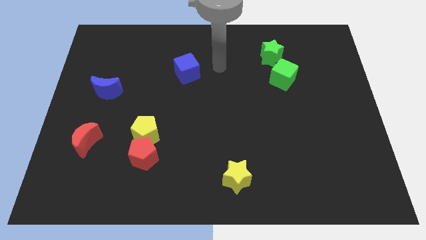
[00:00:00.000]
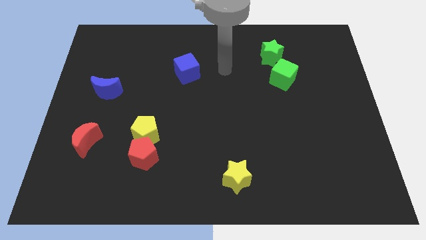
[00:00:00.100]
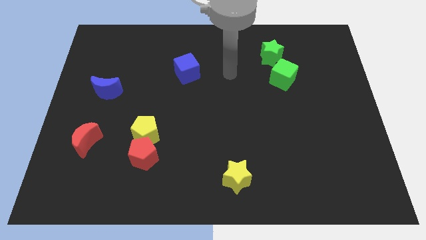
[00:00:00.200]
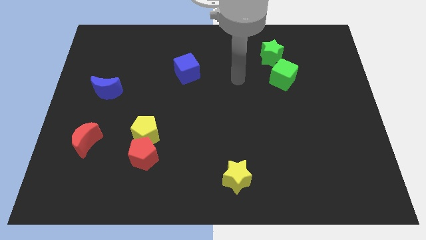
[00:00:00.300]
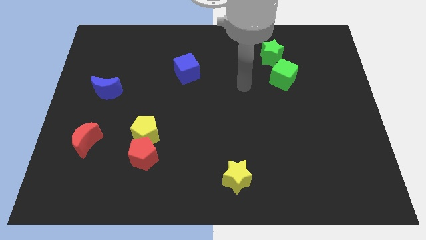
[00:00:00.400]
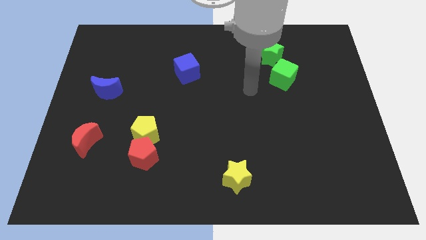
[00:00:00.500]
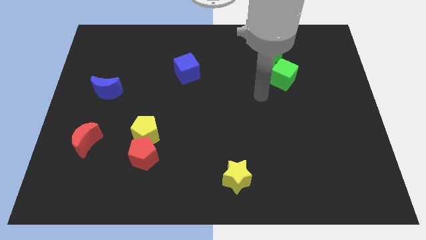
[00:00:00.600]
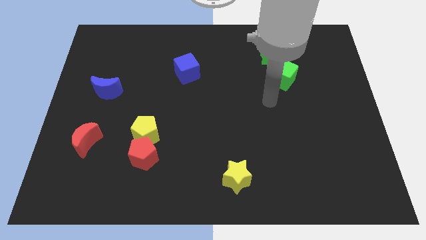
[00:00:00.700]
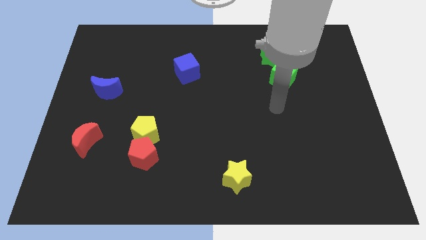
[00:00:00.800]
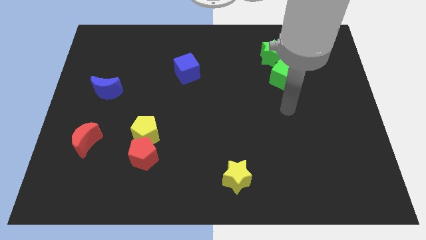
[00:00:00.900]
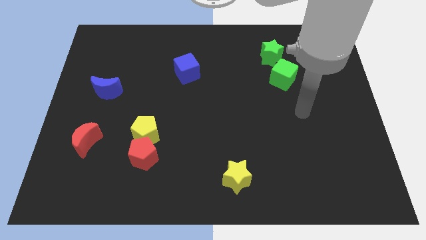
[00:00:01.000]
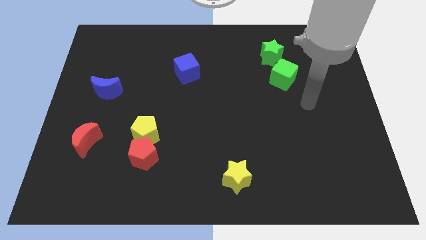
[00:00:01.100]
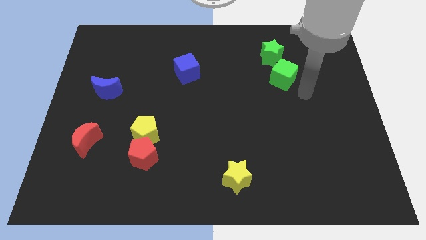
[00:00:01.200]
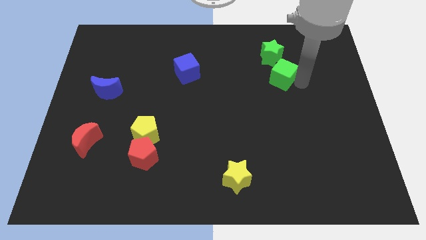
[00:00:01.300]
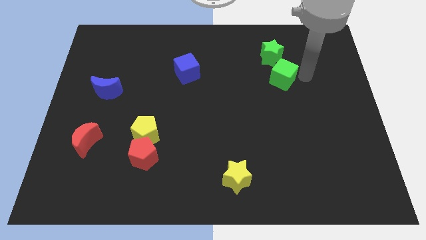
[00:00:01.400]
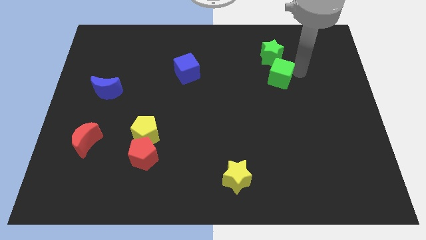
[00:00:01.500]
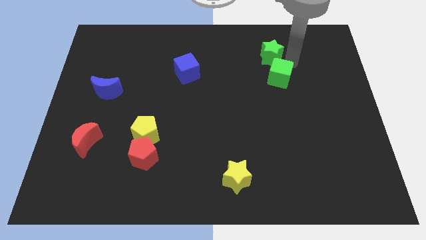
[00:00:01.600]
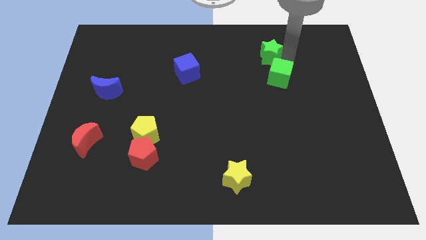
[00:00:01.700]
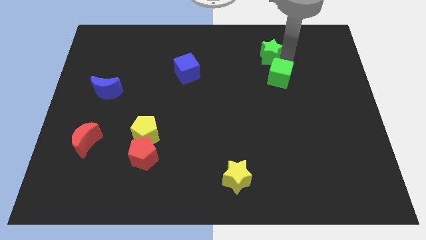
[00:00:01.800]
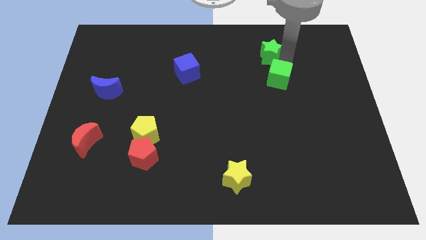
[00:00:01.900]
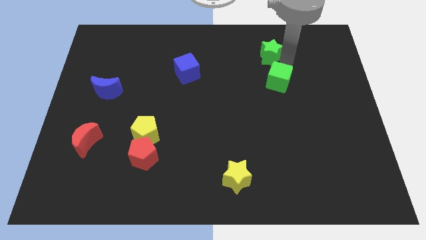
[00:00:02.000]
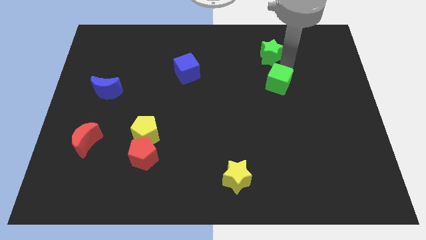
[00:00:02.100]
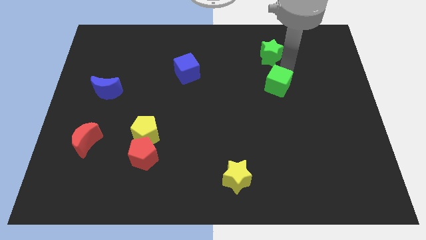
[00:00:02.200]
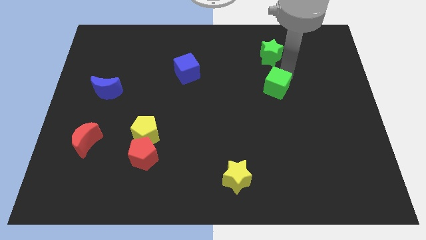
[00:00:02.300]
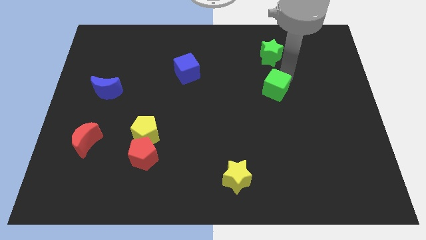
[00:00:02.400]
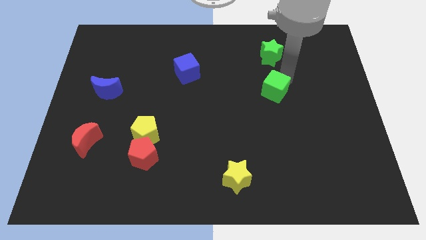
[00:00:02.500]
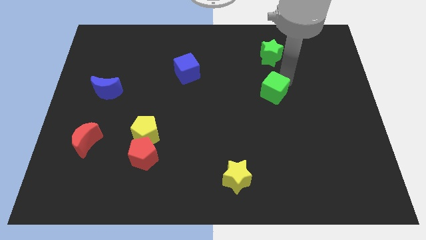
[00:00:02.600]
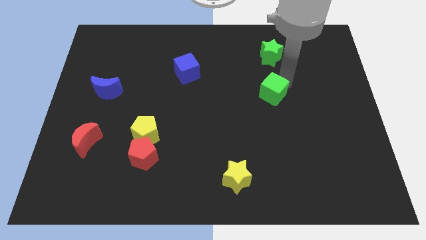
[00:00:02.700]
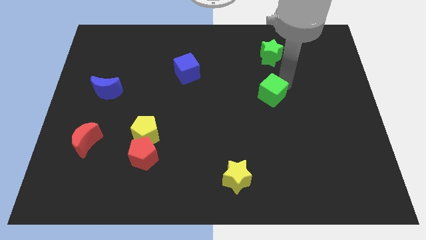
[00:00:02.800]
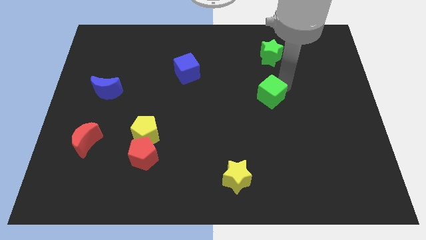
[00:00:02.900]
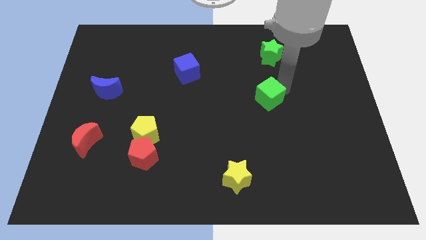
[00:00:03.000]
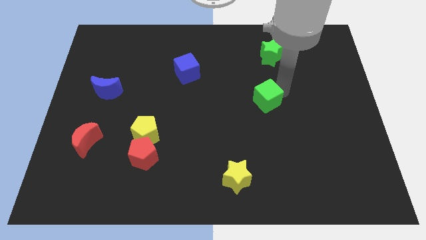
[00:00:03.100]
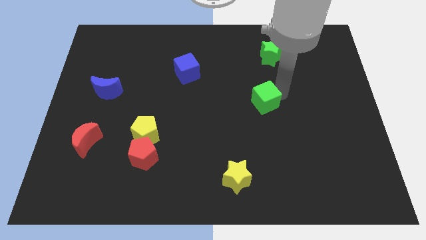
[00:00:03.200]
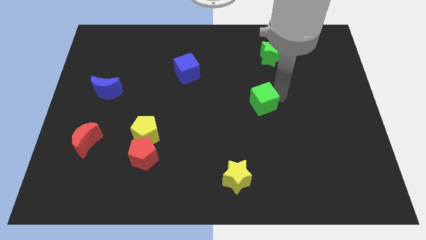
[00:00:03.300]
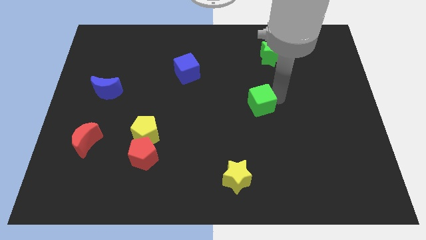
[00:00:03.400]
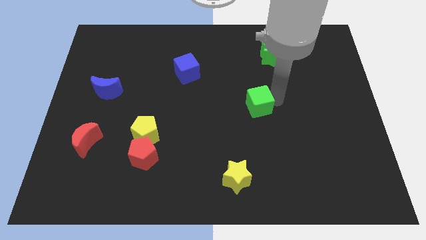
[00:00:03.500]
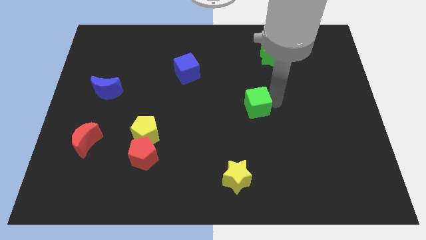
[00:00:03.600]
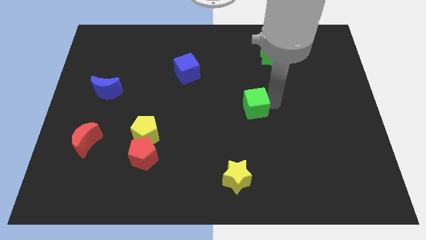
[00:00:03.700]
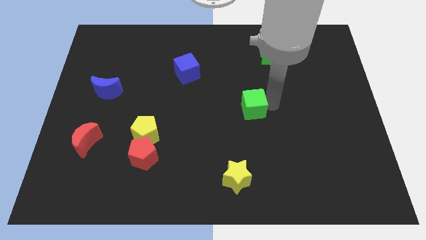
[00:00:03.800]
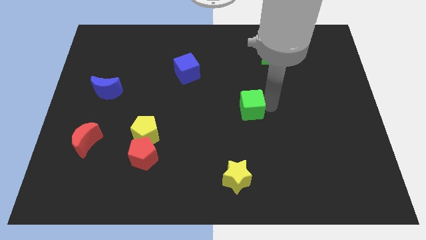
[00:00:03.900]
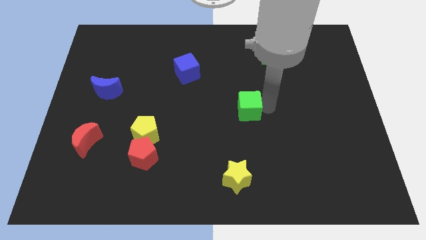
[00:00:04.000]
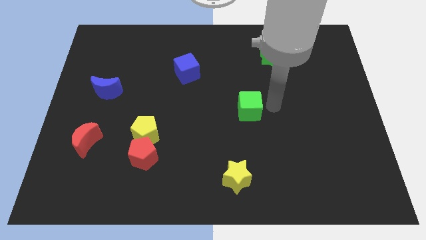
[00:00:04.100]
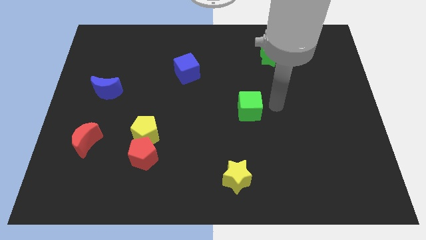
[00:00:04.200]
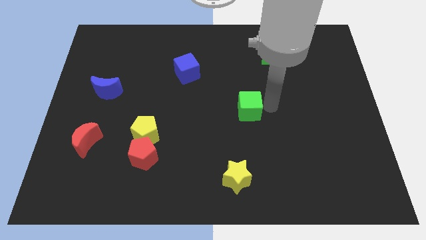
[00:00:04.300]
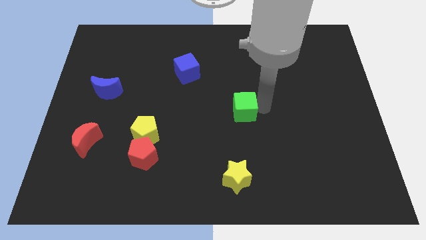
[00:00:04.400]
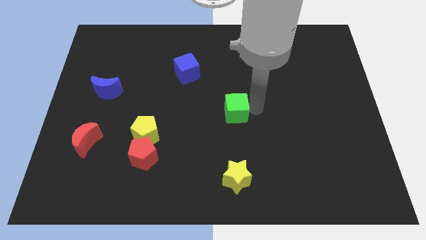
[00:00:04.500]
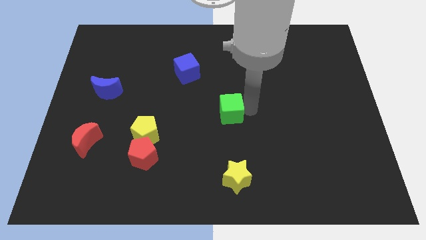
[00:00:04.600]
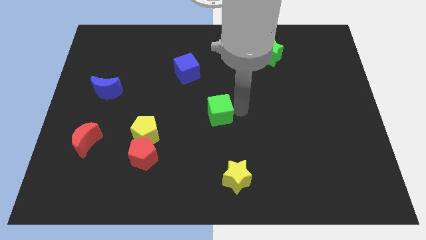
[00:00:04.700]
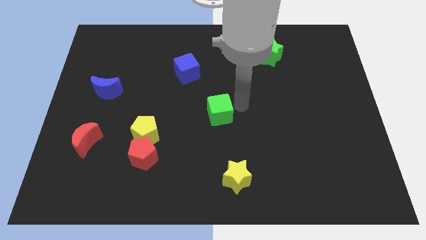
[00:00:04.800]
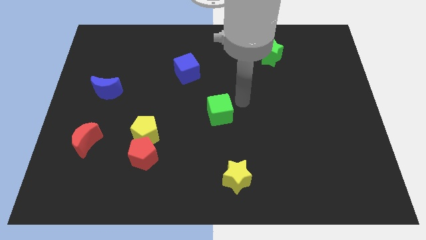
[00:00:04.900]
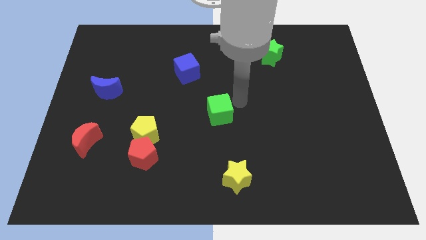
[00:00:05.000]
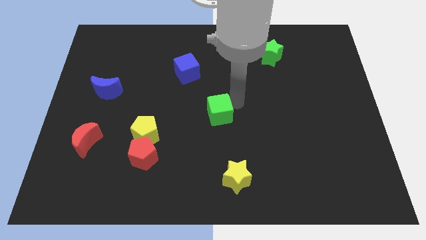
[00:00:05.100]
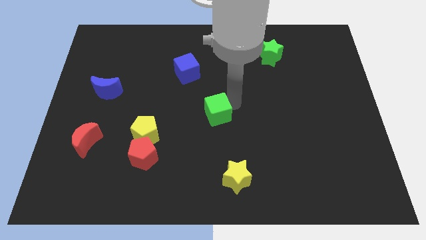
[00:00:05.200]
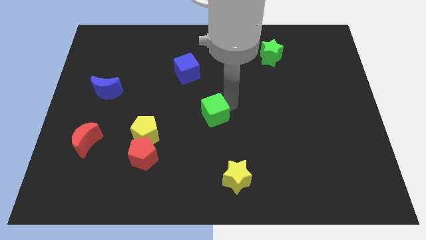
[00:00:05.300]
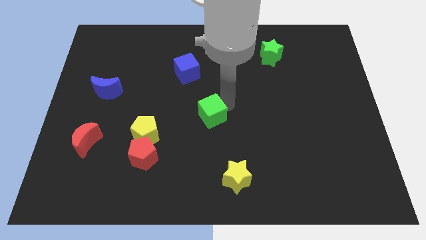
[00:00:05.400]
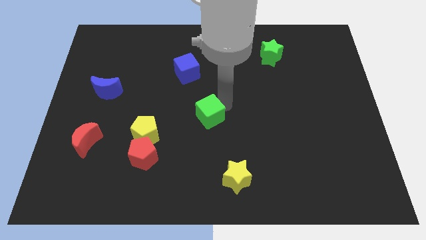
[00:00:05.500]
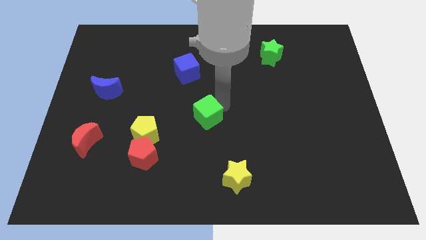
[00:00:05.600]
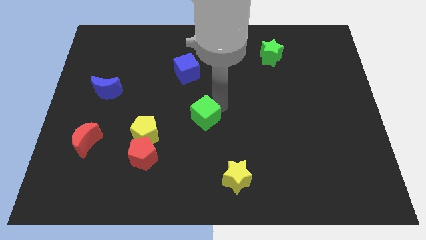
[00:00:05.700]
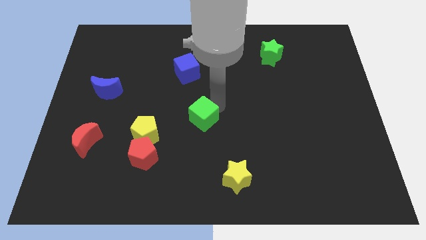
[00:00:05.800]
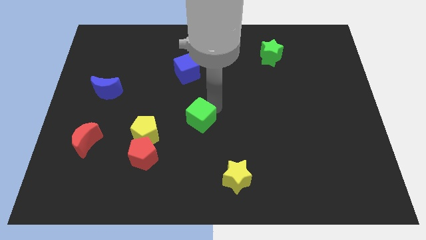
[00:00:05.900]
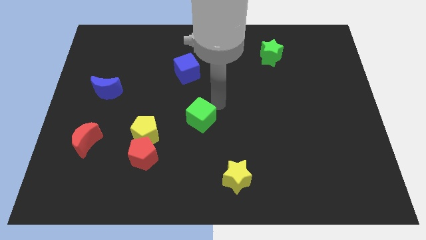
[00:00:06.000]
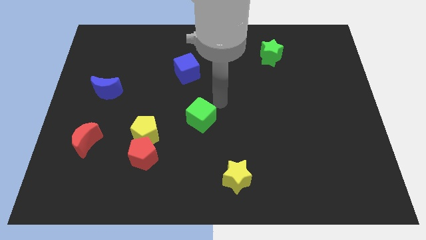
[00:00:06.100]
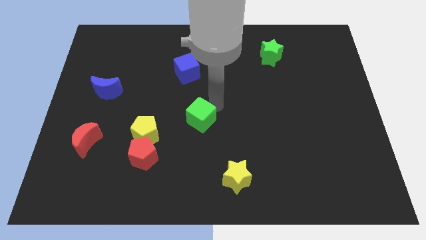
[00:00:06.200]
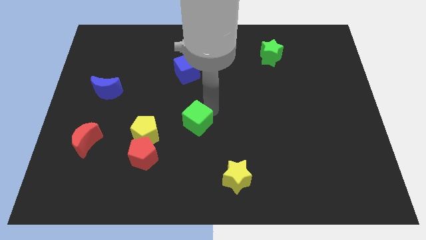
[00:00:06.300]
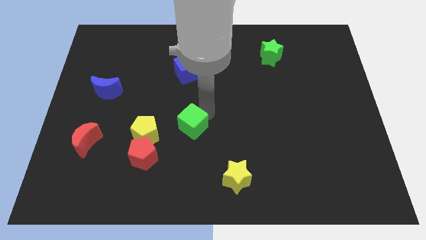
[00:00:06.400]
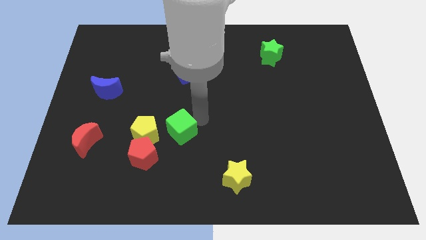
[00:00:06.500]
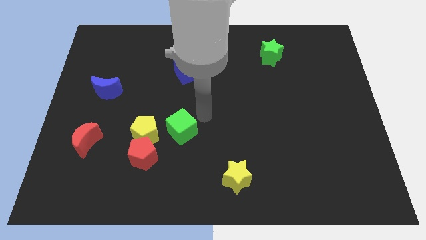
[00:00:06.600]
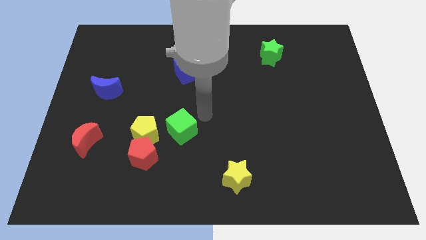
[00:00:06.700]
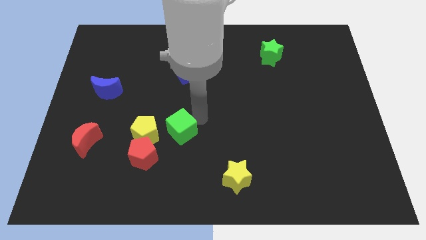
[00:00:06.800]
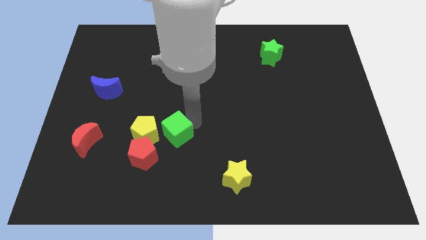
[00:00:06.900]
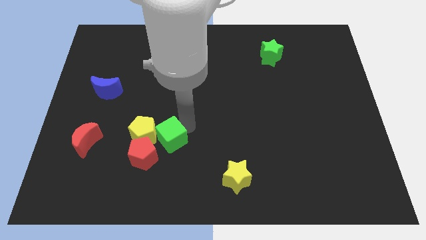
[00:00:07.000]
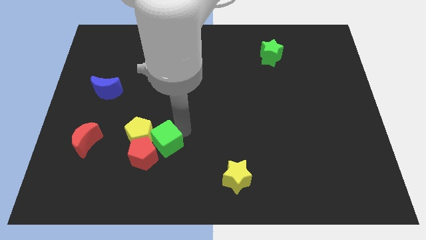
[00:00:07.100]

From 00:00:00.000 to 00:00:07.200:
slide the green cube close to the red pentagon
